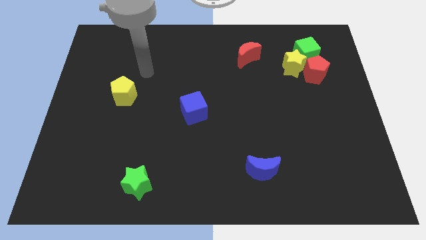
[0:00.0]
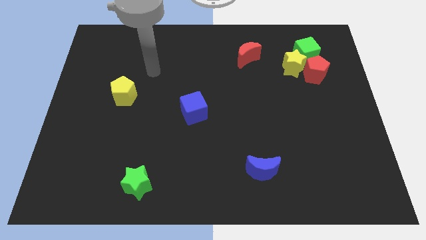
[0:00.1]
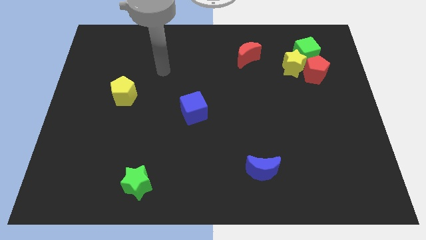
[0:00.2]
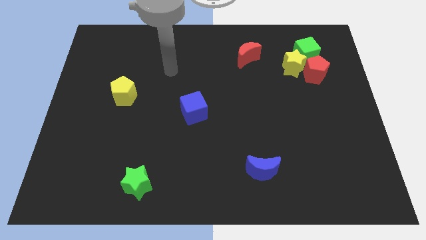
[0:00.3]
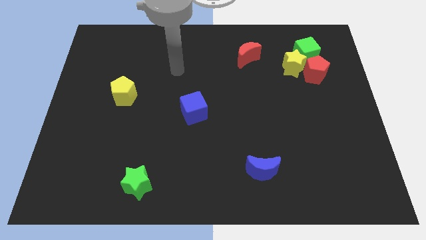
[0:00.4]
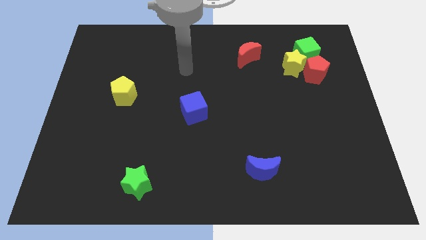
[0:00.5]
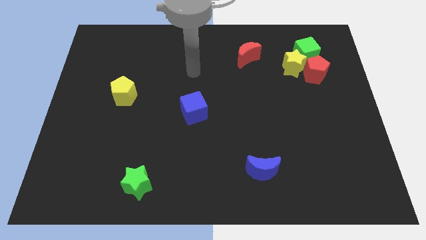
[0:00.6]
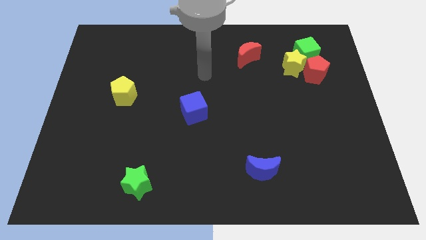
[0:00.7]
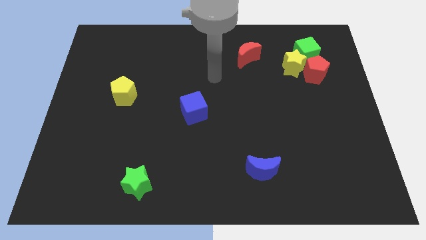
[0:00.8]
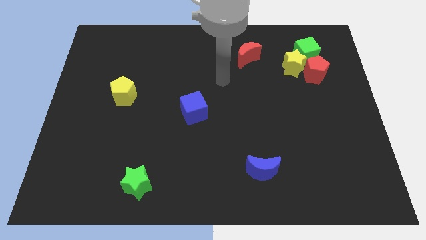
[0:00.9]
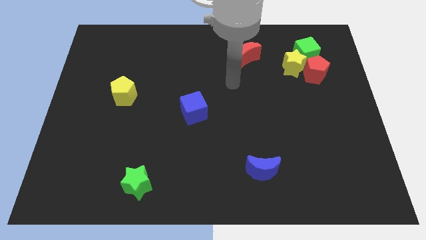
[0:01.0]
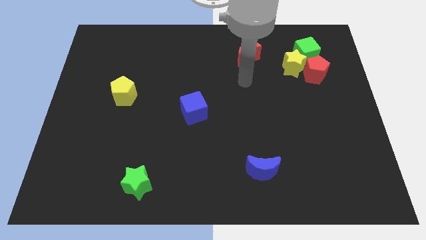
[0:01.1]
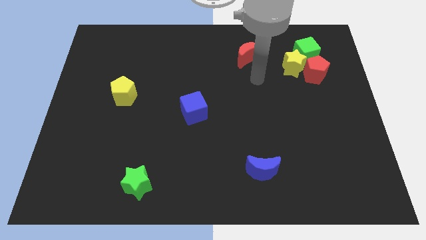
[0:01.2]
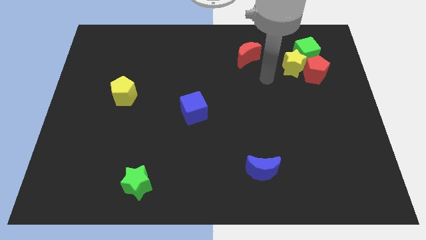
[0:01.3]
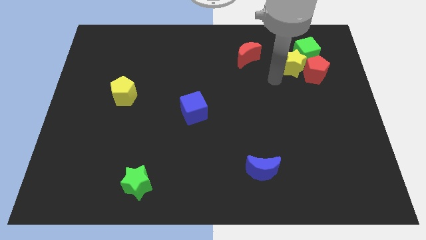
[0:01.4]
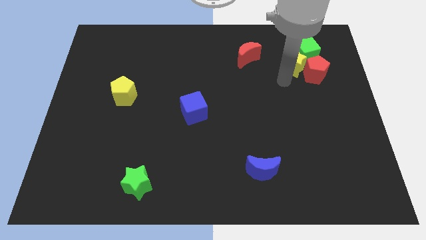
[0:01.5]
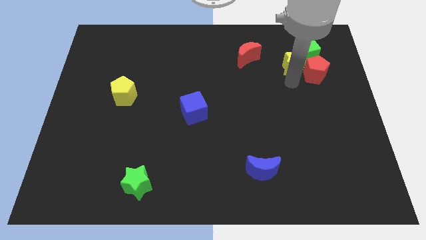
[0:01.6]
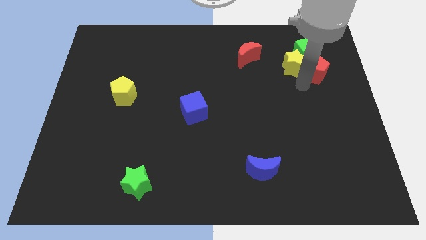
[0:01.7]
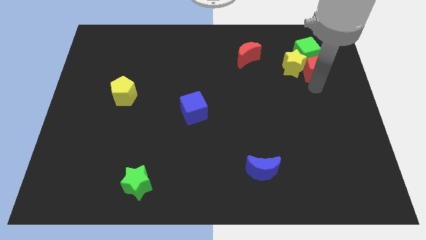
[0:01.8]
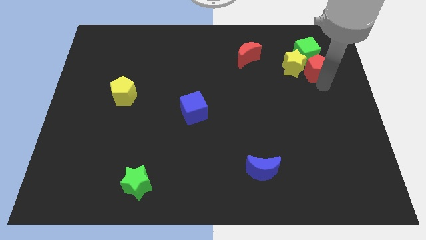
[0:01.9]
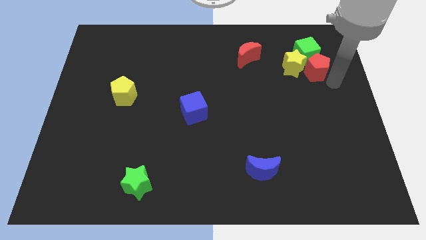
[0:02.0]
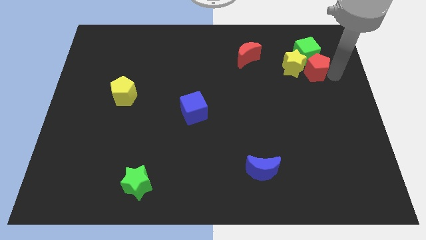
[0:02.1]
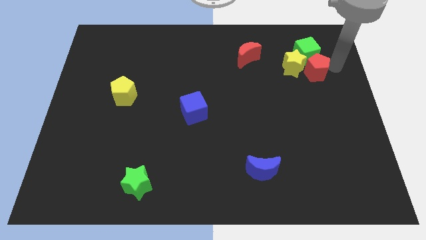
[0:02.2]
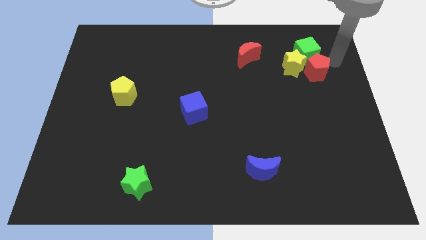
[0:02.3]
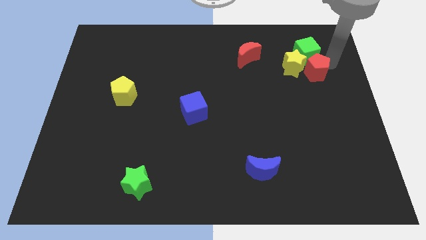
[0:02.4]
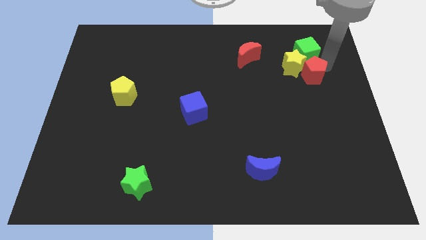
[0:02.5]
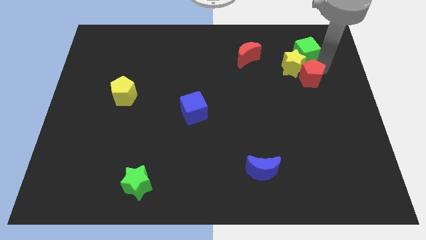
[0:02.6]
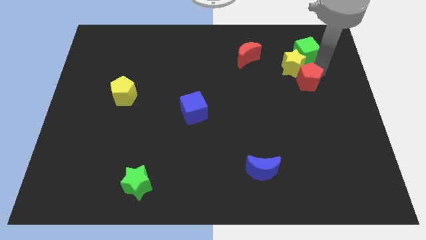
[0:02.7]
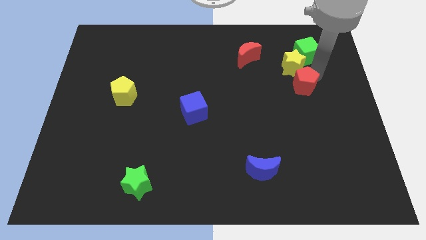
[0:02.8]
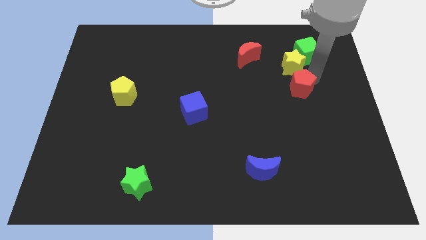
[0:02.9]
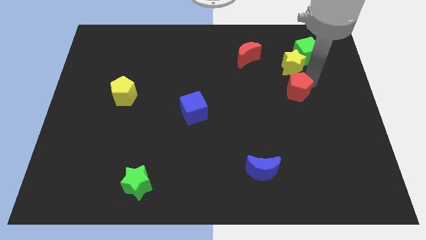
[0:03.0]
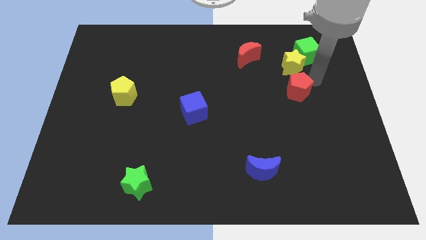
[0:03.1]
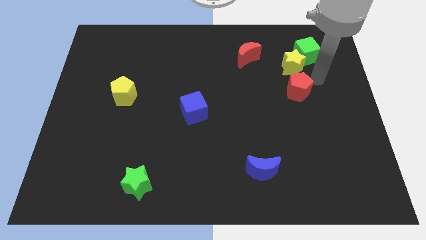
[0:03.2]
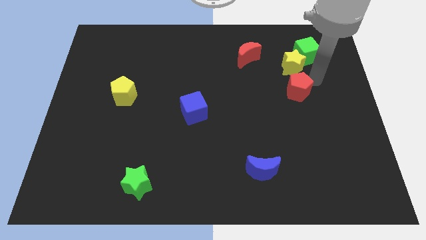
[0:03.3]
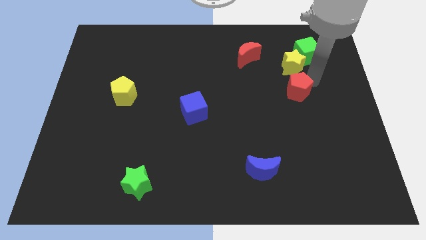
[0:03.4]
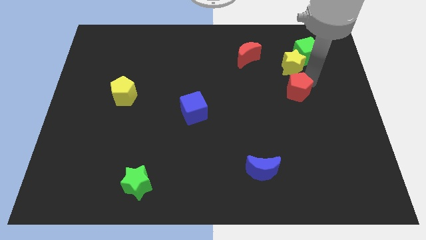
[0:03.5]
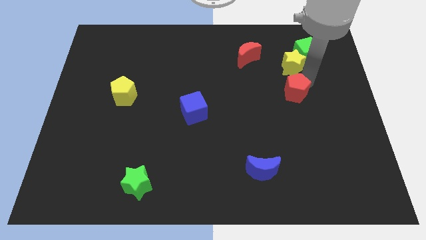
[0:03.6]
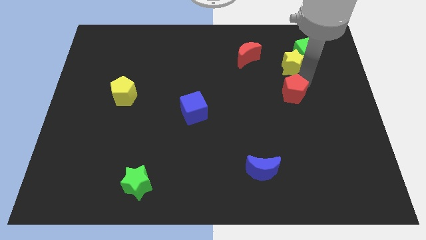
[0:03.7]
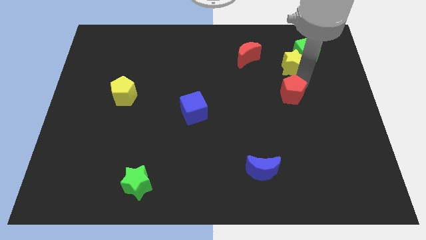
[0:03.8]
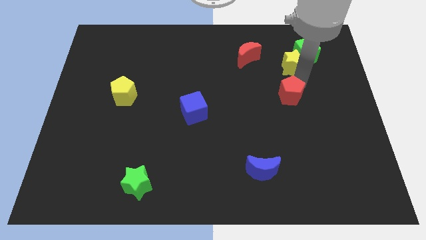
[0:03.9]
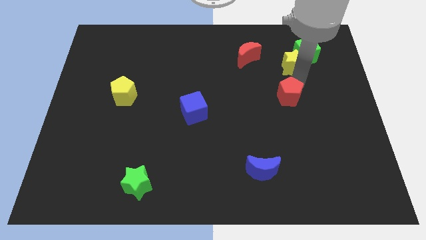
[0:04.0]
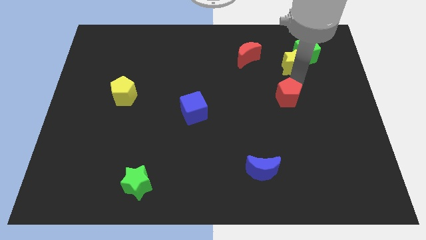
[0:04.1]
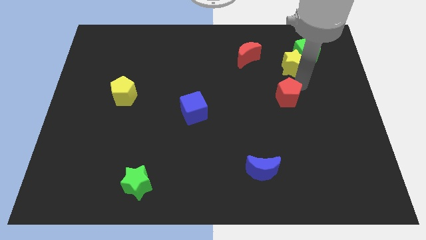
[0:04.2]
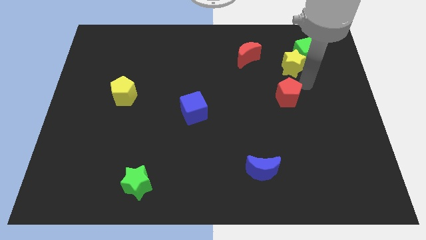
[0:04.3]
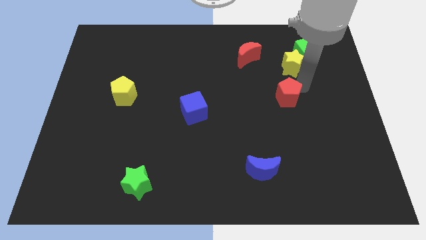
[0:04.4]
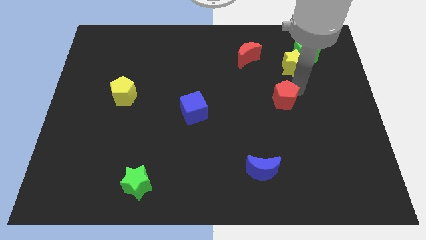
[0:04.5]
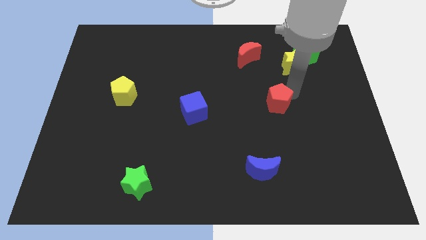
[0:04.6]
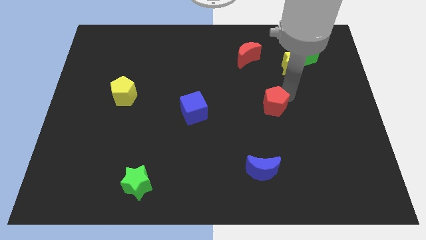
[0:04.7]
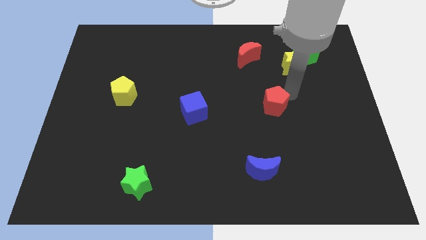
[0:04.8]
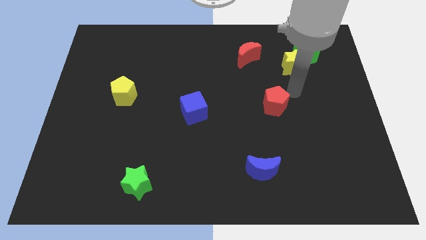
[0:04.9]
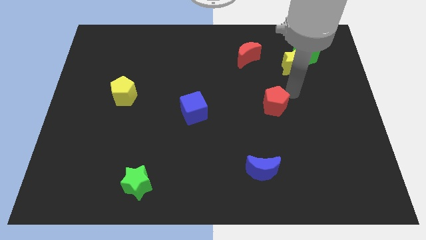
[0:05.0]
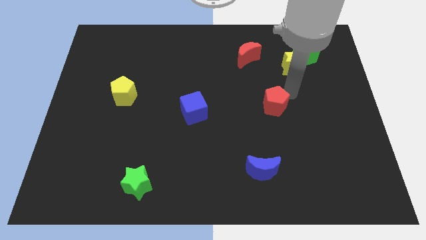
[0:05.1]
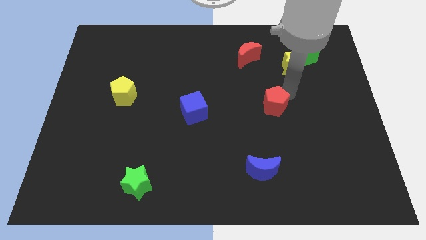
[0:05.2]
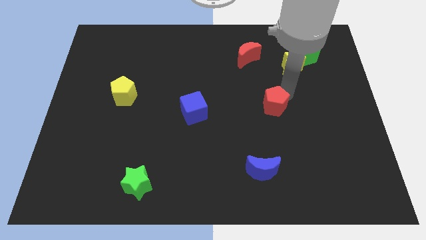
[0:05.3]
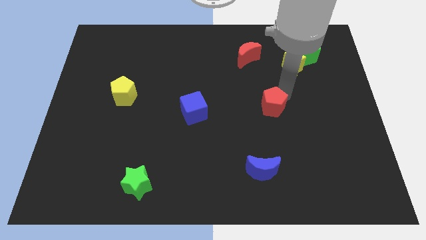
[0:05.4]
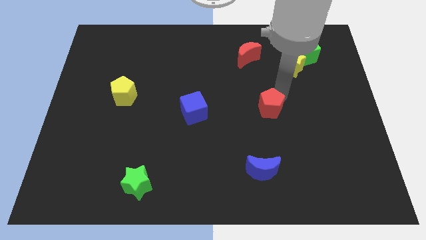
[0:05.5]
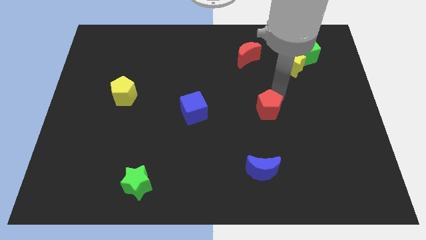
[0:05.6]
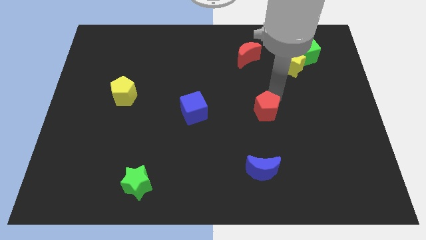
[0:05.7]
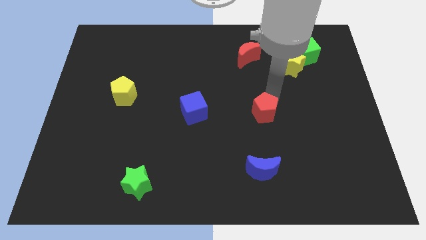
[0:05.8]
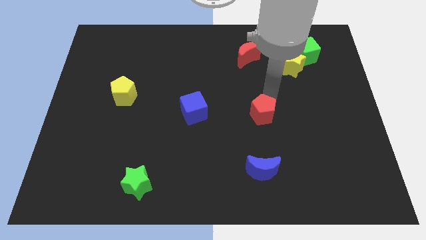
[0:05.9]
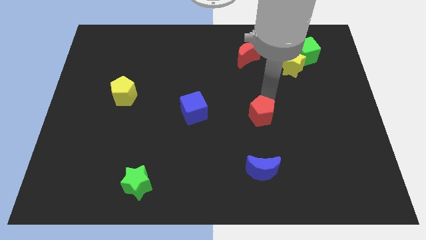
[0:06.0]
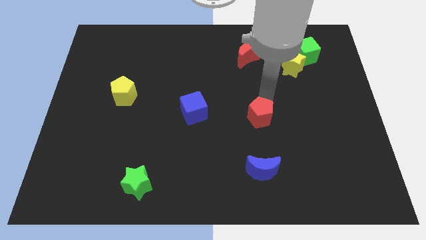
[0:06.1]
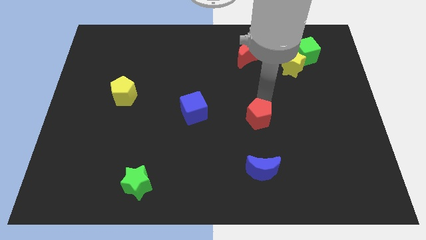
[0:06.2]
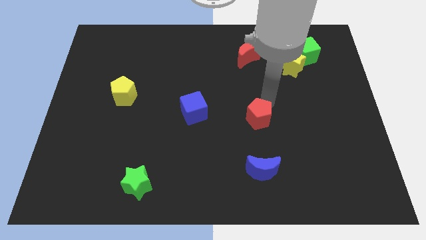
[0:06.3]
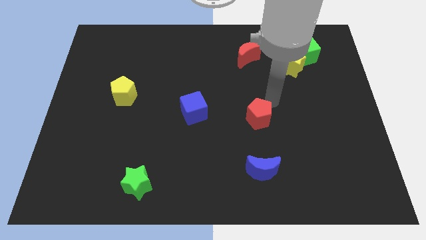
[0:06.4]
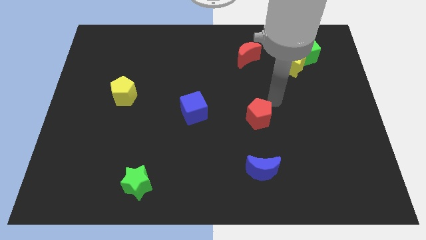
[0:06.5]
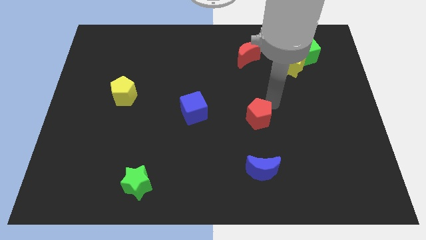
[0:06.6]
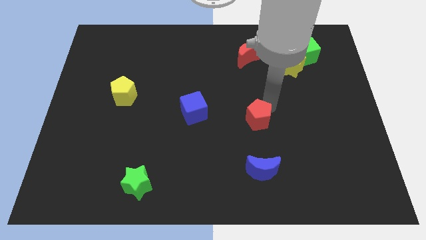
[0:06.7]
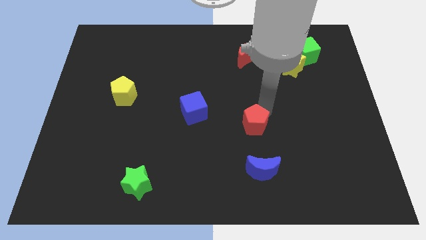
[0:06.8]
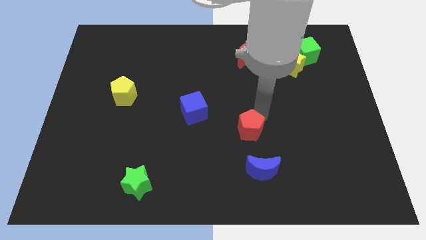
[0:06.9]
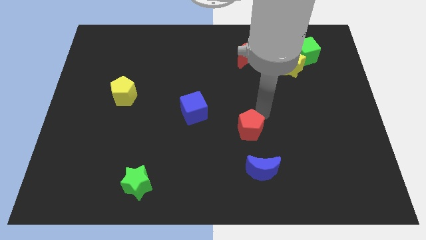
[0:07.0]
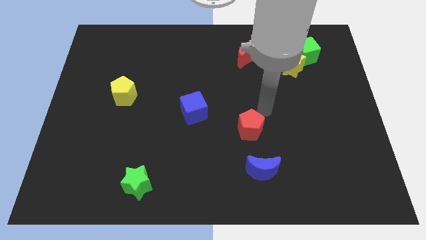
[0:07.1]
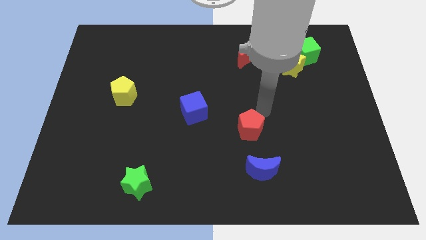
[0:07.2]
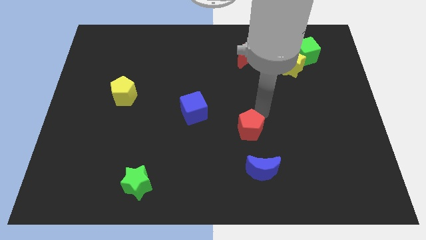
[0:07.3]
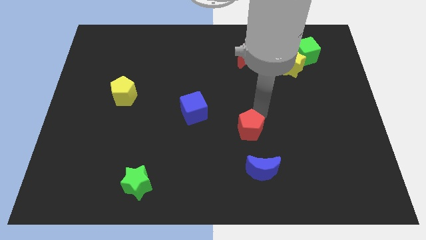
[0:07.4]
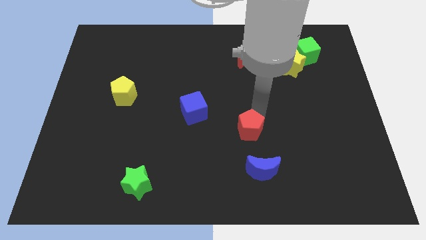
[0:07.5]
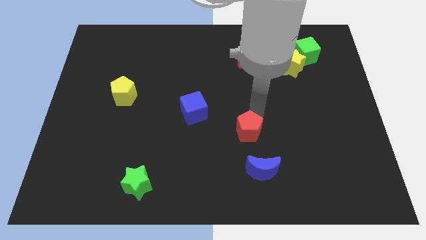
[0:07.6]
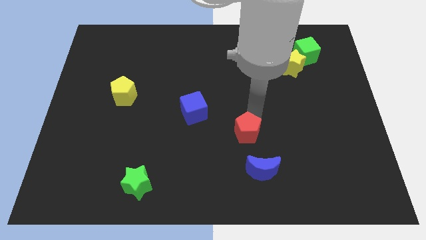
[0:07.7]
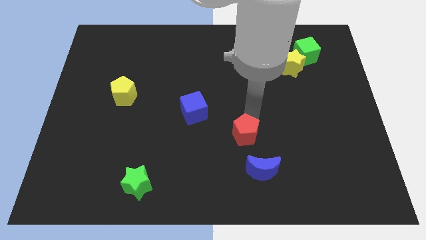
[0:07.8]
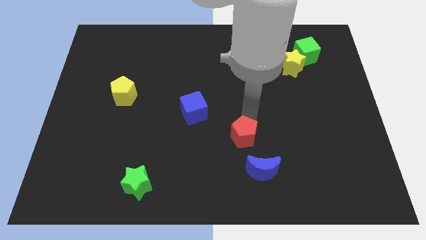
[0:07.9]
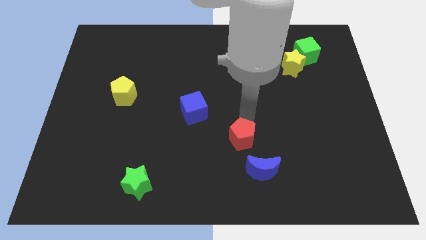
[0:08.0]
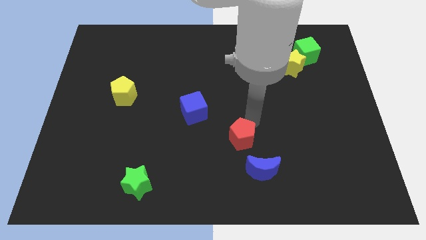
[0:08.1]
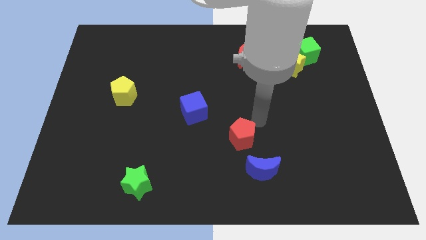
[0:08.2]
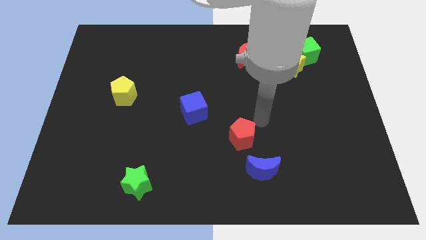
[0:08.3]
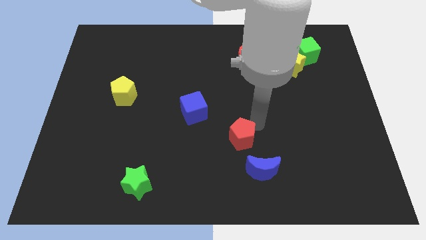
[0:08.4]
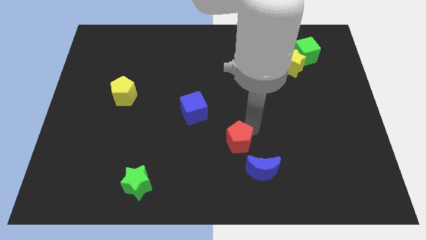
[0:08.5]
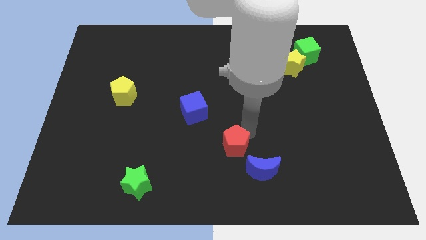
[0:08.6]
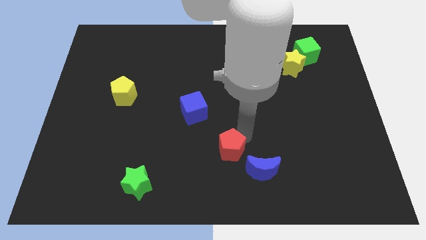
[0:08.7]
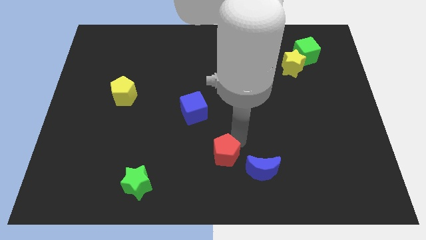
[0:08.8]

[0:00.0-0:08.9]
push the red pentagon to the left of the blue moon
